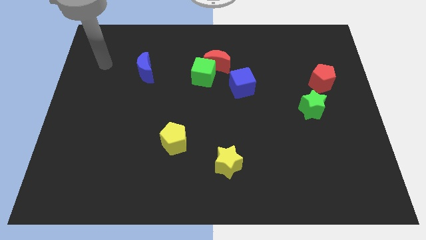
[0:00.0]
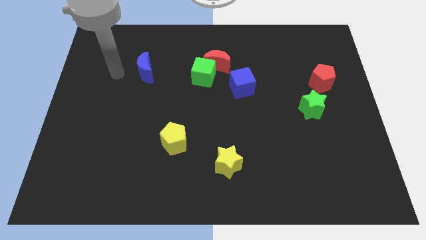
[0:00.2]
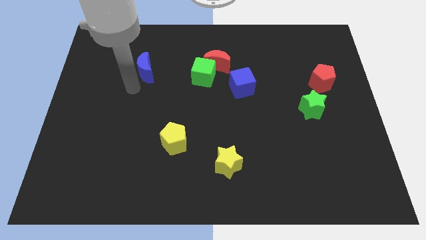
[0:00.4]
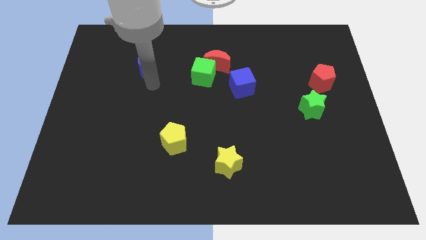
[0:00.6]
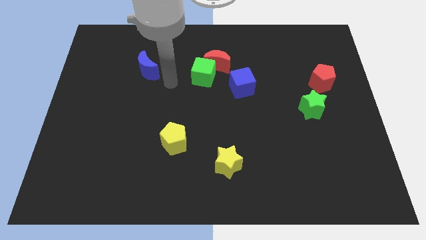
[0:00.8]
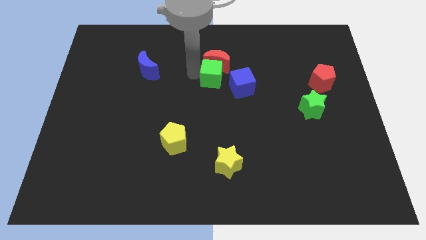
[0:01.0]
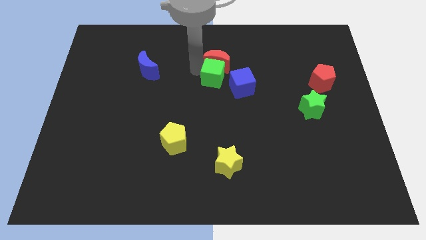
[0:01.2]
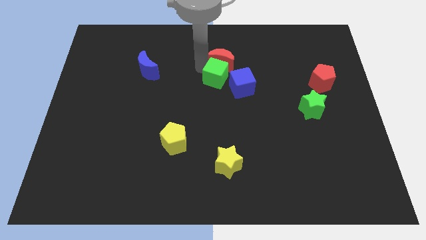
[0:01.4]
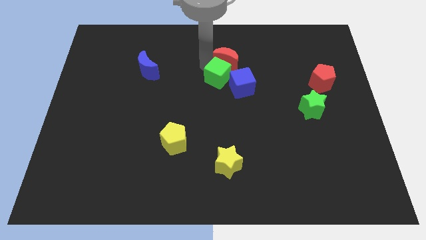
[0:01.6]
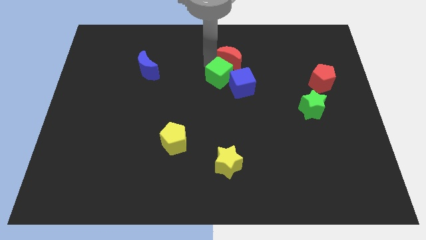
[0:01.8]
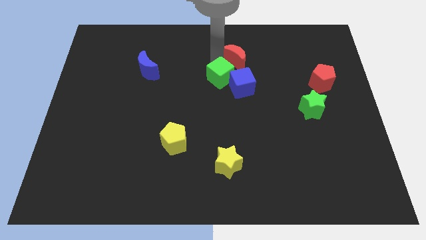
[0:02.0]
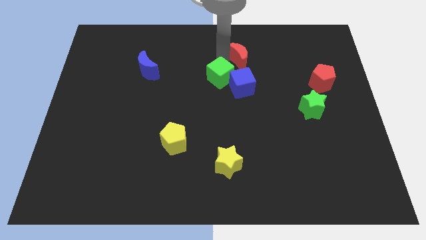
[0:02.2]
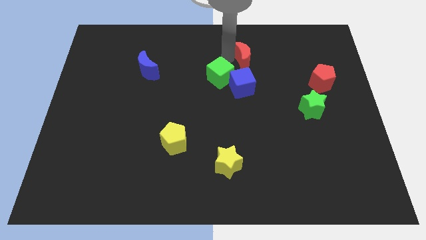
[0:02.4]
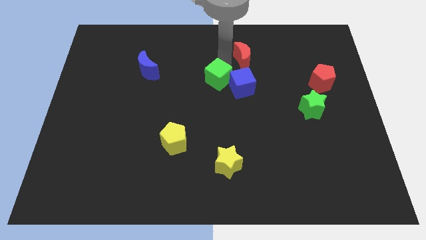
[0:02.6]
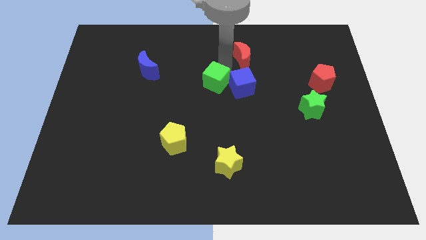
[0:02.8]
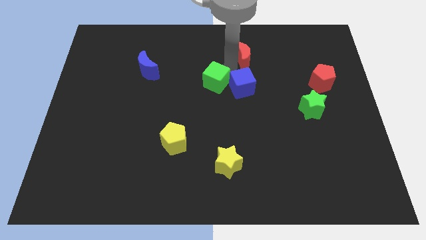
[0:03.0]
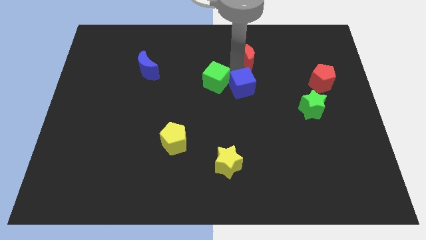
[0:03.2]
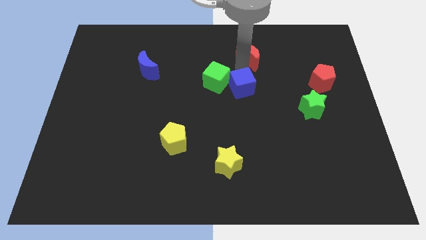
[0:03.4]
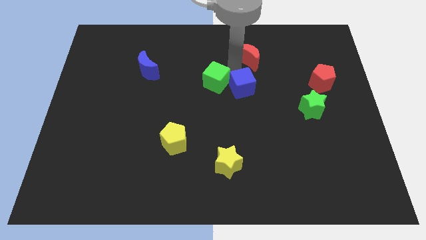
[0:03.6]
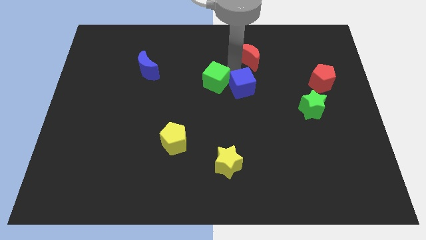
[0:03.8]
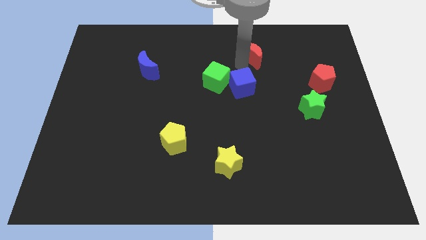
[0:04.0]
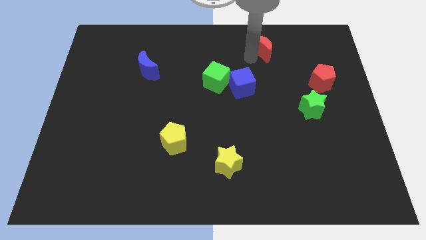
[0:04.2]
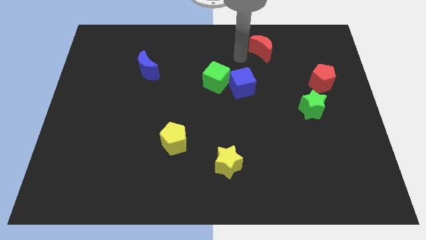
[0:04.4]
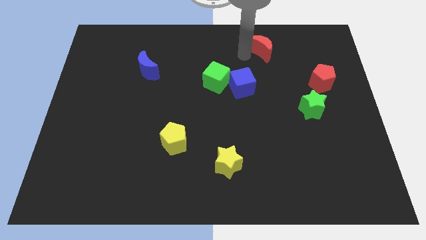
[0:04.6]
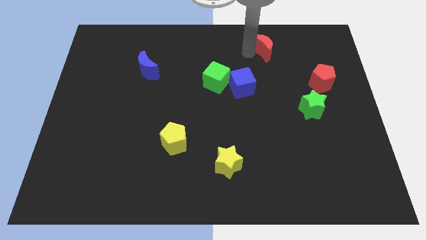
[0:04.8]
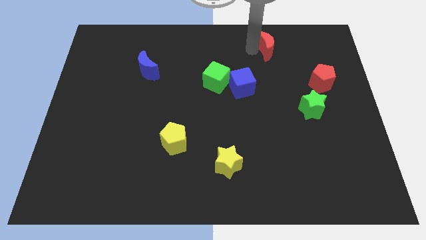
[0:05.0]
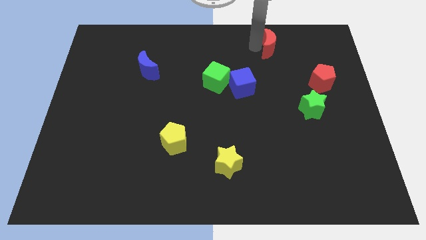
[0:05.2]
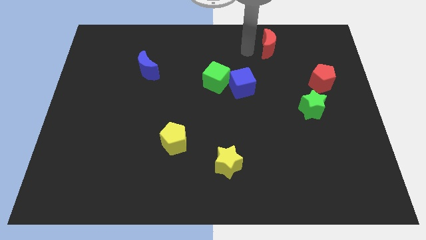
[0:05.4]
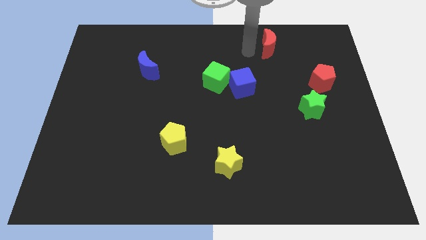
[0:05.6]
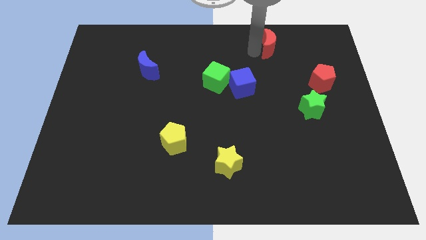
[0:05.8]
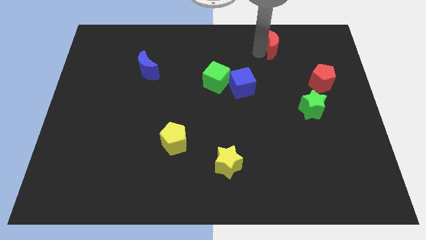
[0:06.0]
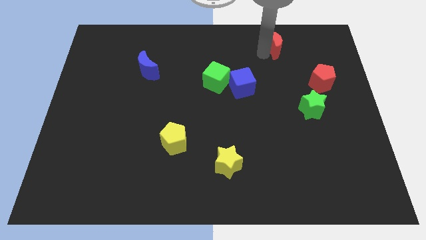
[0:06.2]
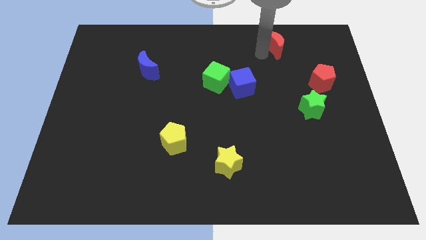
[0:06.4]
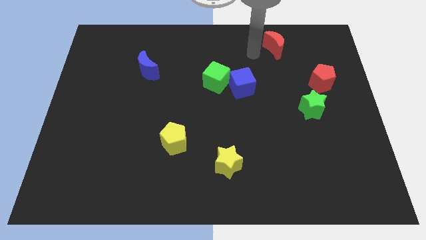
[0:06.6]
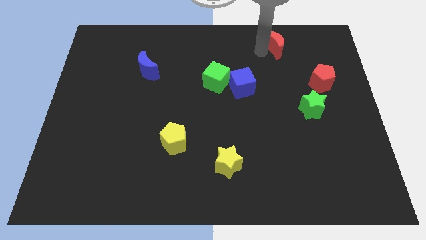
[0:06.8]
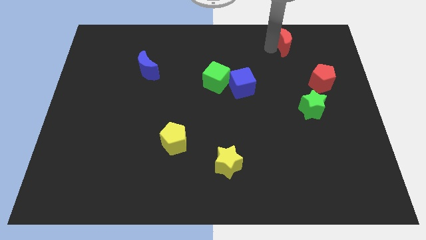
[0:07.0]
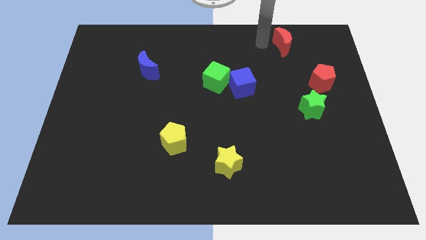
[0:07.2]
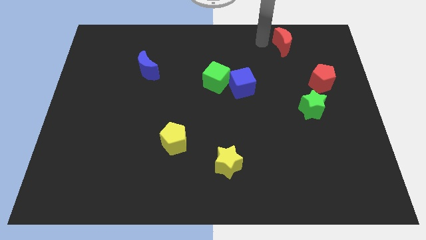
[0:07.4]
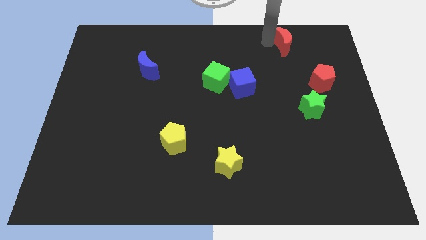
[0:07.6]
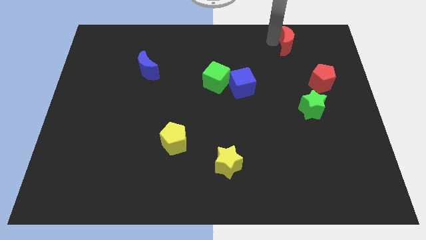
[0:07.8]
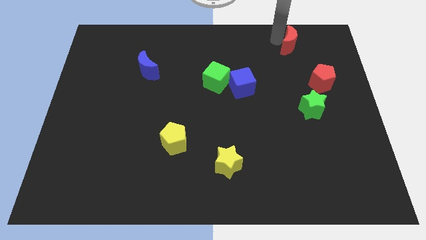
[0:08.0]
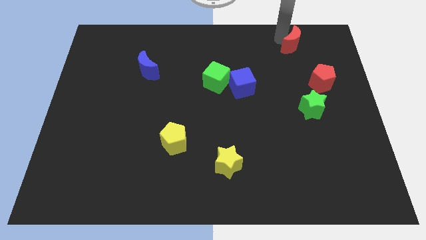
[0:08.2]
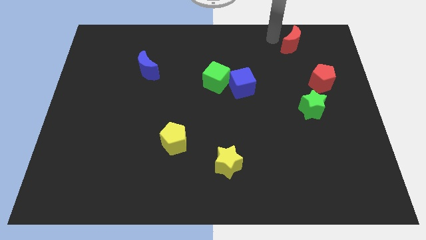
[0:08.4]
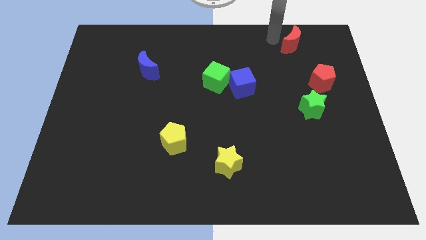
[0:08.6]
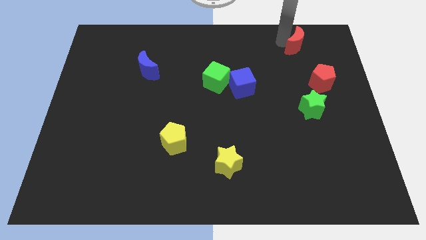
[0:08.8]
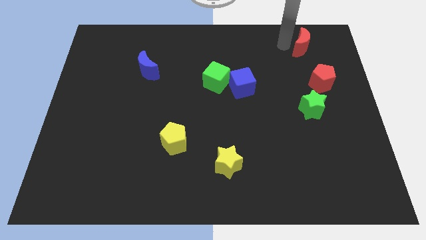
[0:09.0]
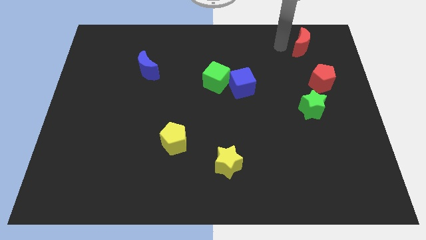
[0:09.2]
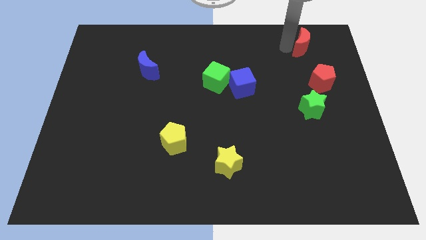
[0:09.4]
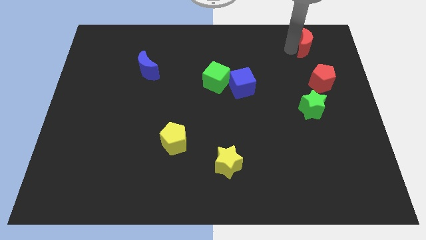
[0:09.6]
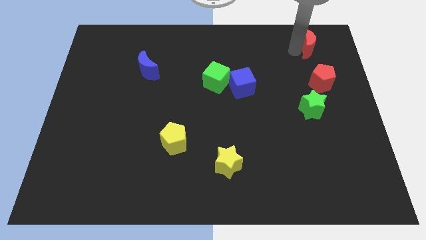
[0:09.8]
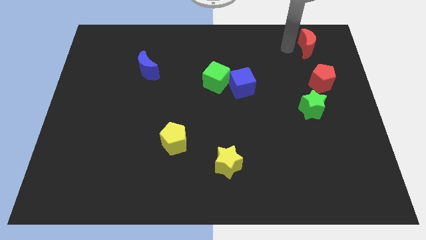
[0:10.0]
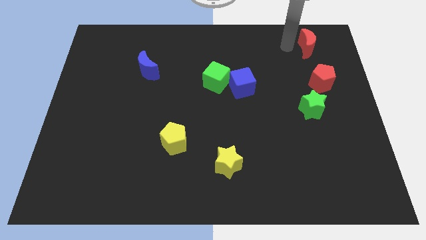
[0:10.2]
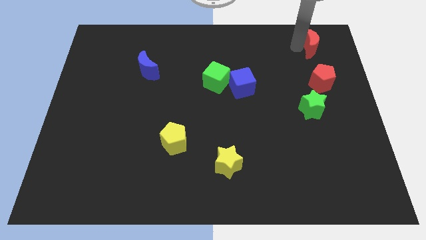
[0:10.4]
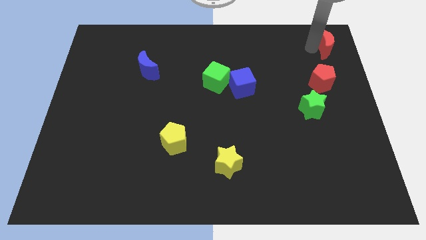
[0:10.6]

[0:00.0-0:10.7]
put the red moon to the top right corner
